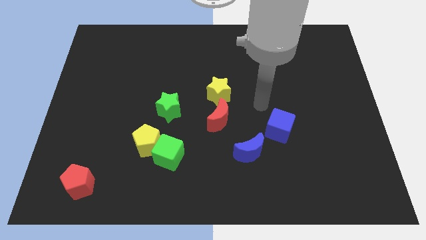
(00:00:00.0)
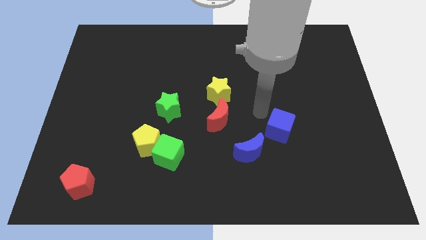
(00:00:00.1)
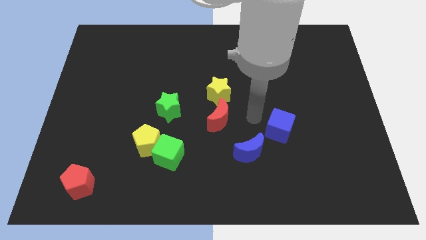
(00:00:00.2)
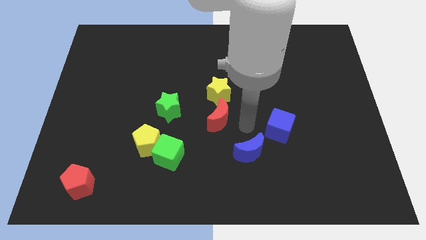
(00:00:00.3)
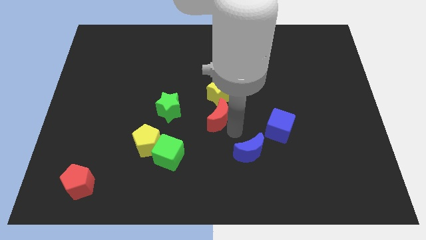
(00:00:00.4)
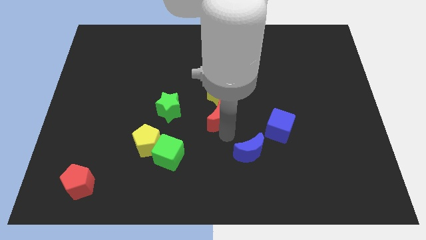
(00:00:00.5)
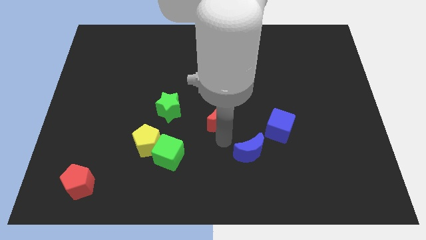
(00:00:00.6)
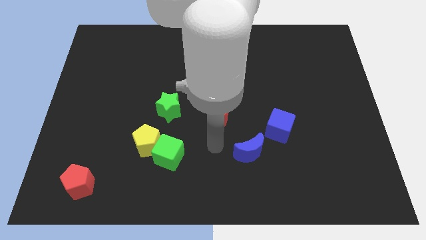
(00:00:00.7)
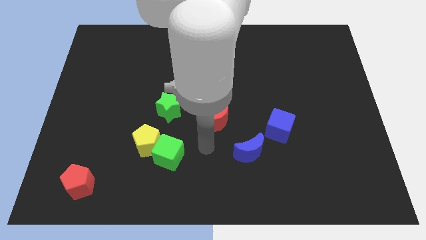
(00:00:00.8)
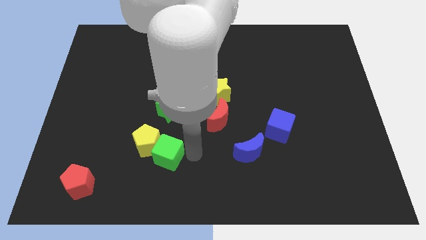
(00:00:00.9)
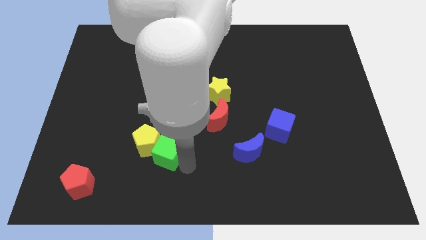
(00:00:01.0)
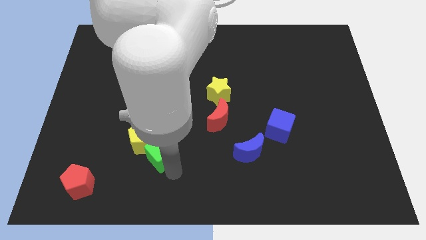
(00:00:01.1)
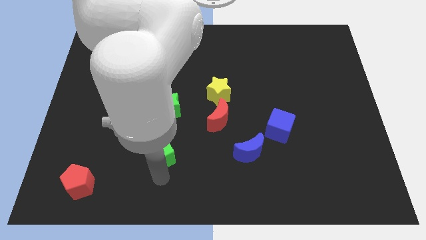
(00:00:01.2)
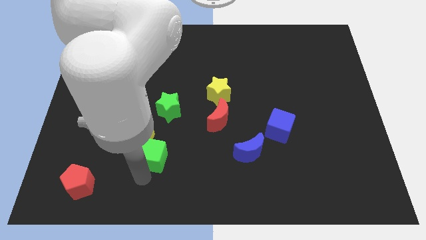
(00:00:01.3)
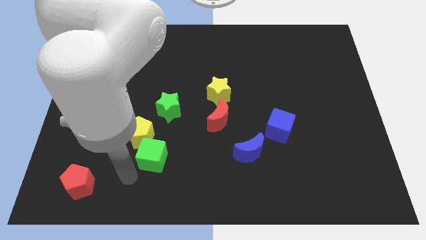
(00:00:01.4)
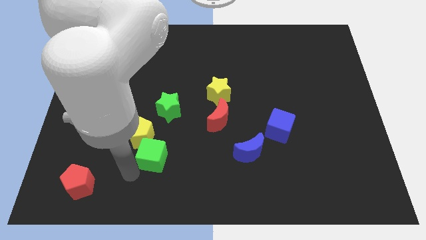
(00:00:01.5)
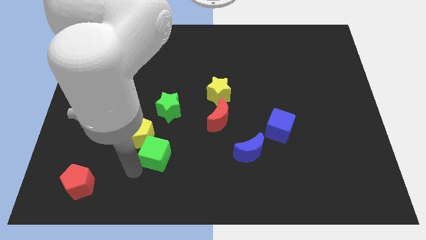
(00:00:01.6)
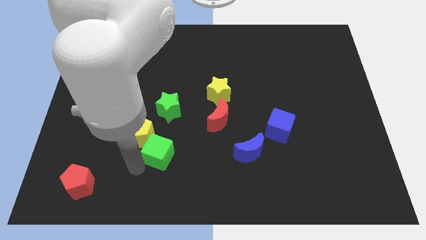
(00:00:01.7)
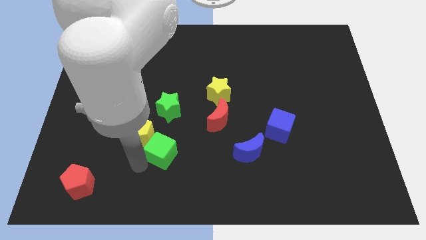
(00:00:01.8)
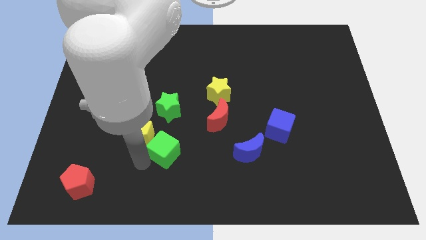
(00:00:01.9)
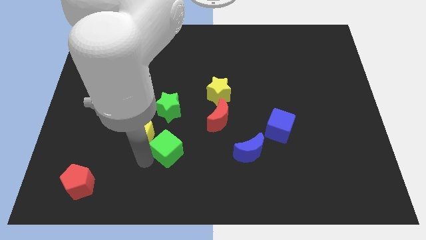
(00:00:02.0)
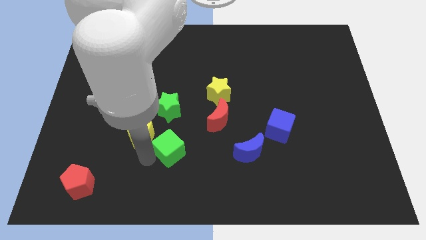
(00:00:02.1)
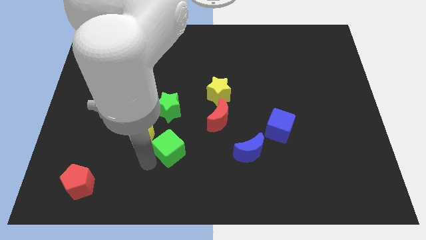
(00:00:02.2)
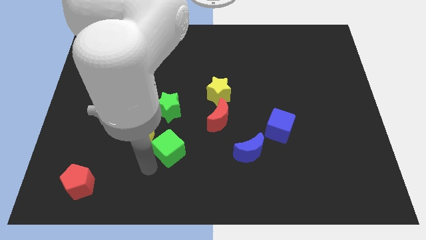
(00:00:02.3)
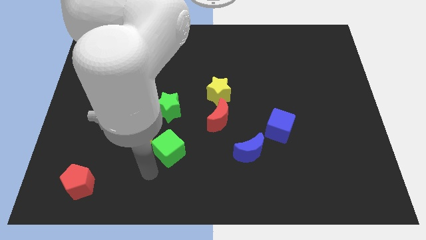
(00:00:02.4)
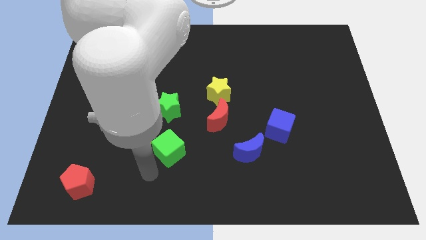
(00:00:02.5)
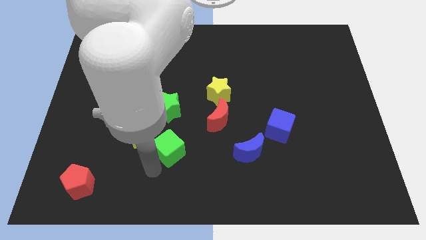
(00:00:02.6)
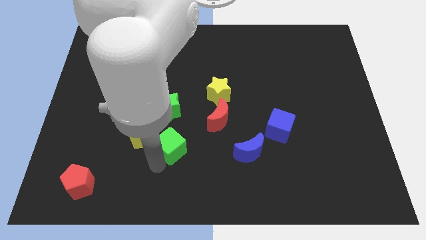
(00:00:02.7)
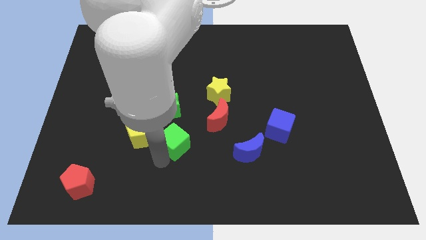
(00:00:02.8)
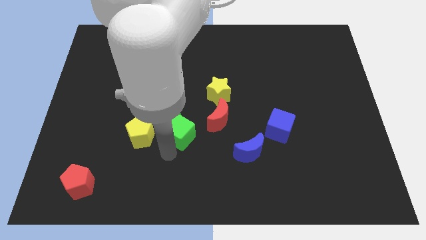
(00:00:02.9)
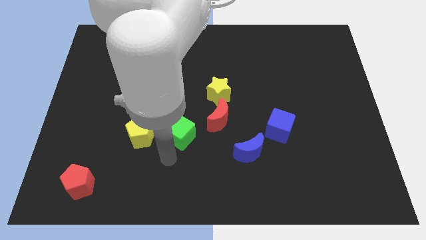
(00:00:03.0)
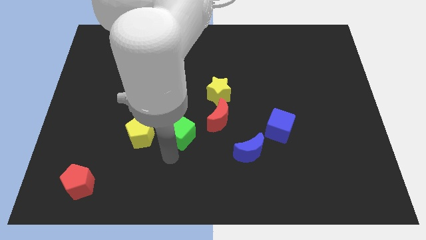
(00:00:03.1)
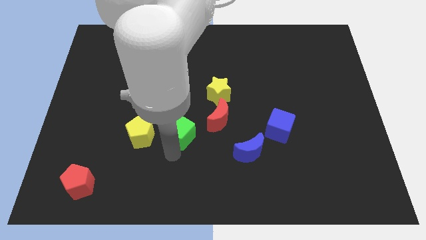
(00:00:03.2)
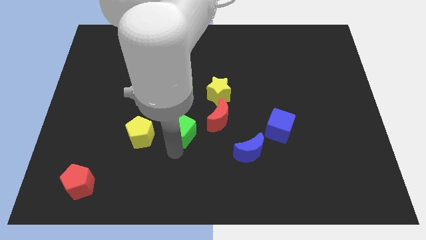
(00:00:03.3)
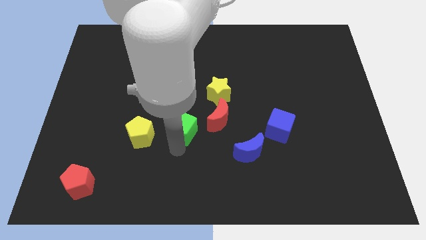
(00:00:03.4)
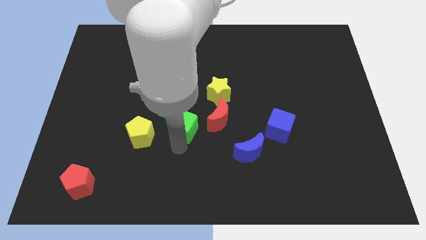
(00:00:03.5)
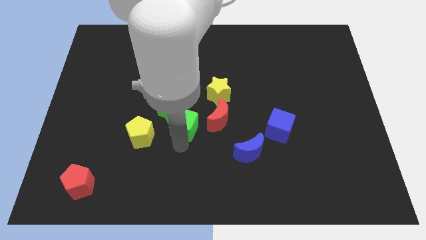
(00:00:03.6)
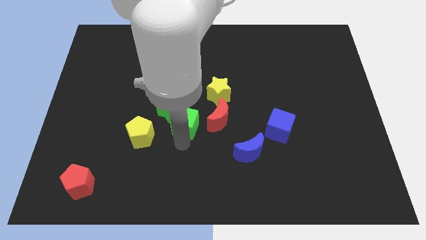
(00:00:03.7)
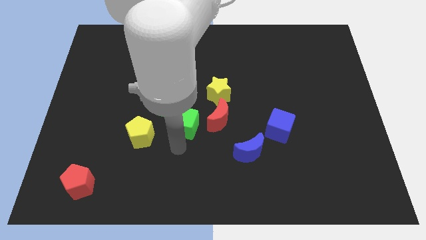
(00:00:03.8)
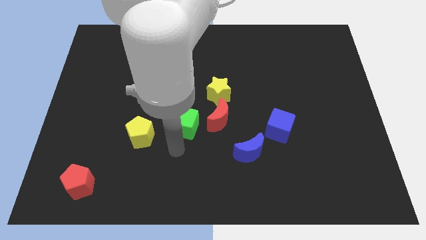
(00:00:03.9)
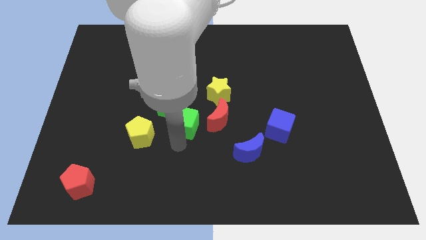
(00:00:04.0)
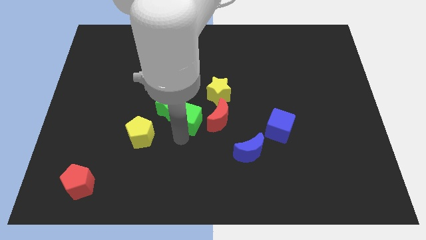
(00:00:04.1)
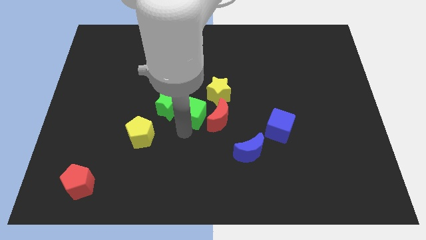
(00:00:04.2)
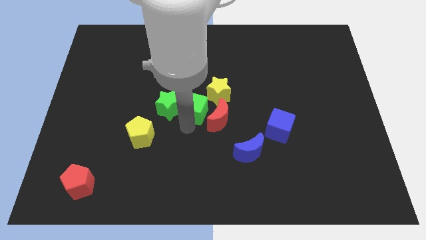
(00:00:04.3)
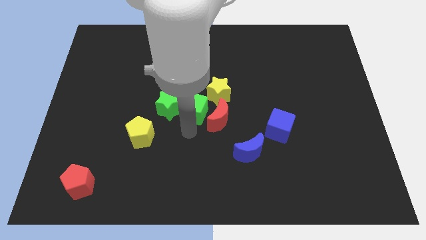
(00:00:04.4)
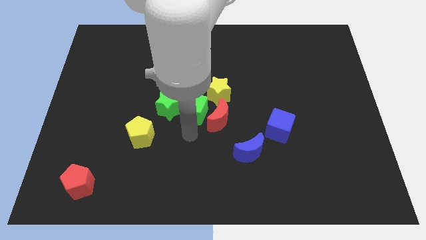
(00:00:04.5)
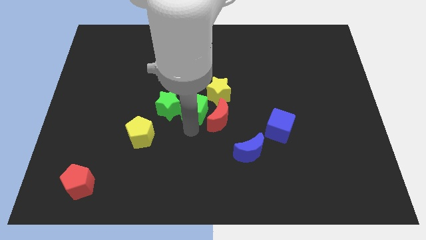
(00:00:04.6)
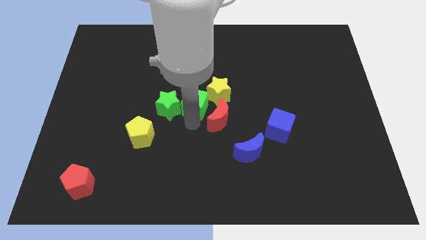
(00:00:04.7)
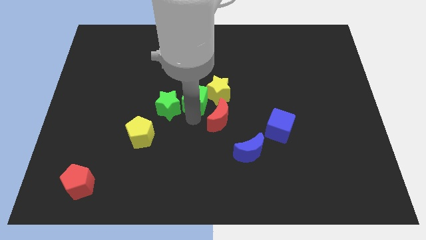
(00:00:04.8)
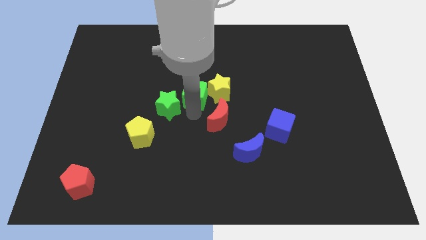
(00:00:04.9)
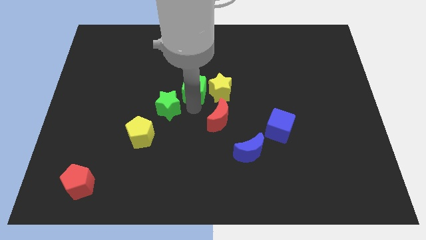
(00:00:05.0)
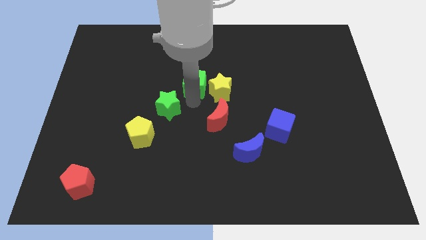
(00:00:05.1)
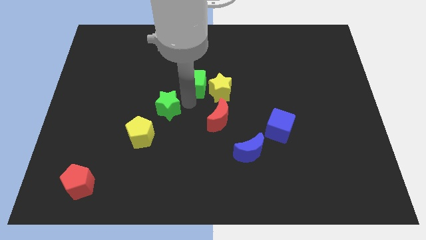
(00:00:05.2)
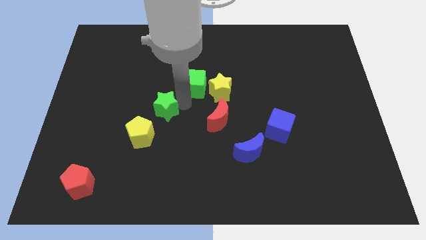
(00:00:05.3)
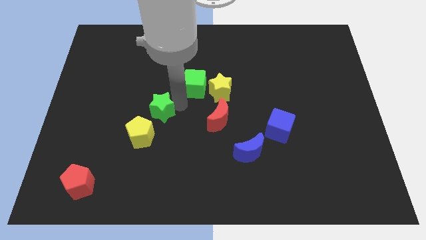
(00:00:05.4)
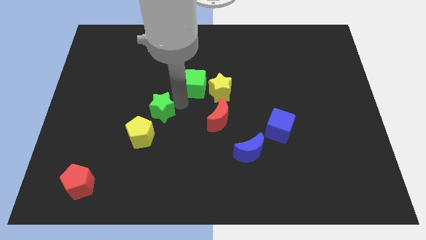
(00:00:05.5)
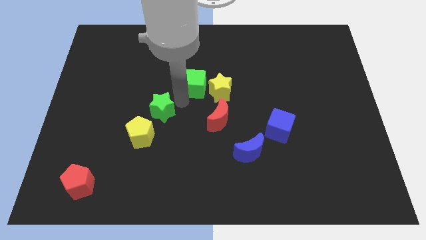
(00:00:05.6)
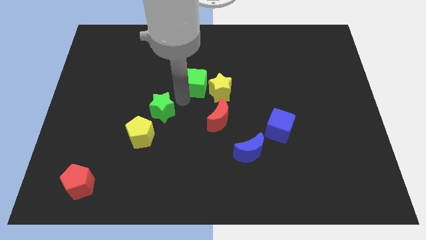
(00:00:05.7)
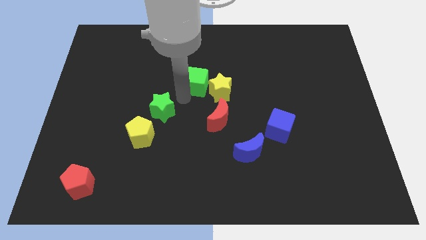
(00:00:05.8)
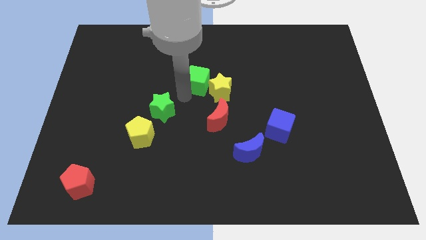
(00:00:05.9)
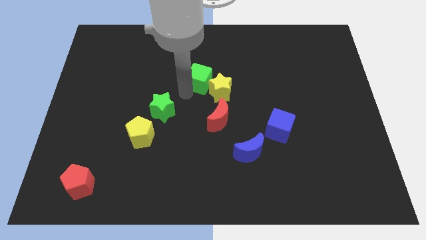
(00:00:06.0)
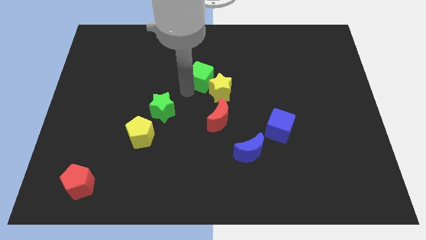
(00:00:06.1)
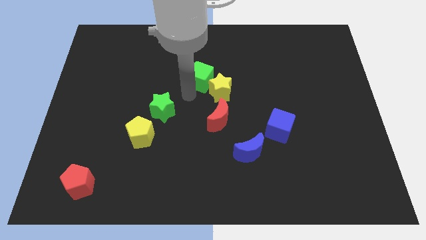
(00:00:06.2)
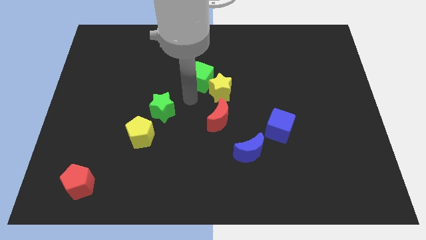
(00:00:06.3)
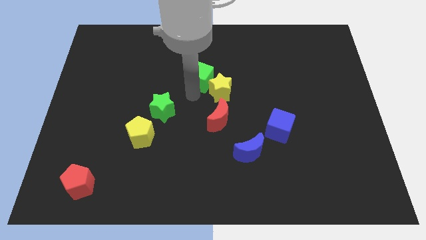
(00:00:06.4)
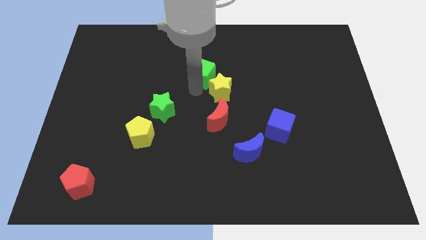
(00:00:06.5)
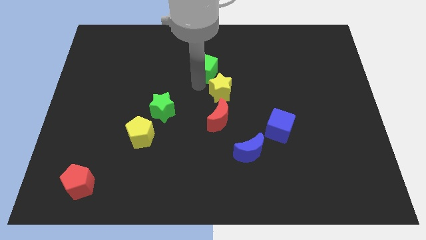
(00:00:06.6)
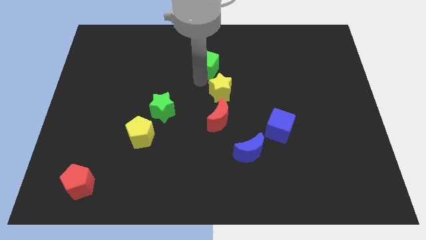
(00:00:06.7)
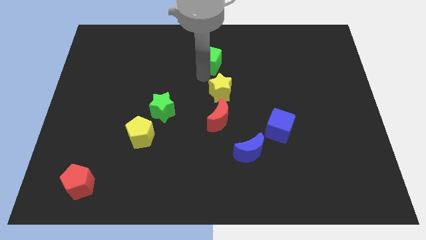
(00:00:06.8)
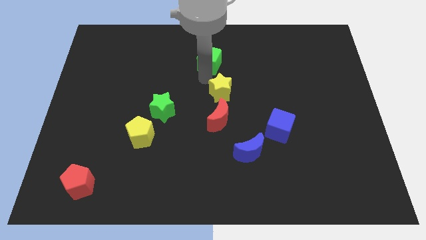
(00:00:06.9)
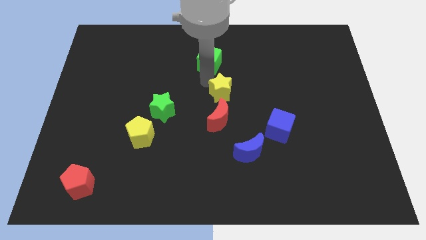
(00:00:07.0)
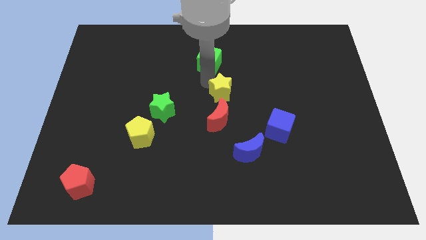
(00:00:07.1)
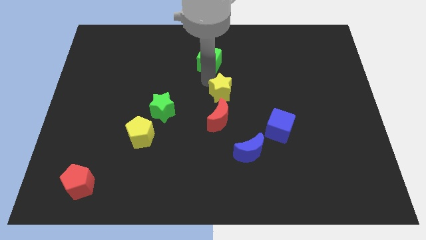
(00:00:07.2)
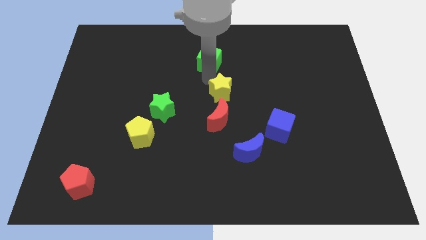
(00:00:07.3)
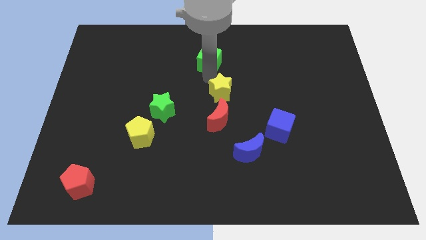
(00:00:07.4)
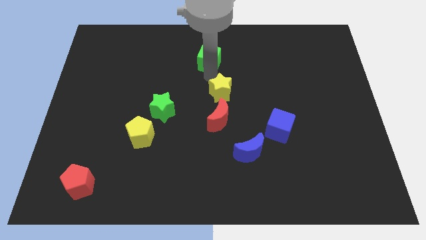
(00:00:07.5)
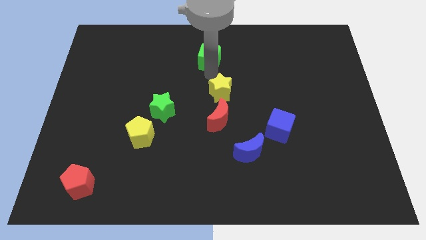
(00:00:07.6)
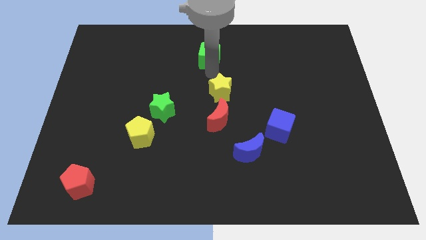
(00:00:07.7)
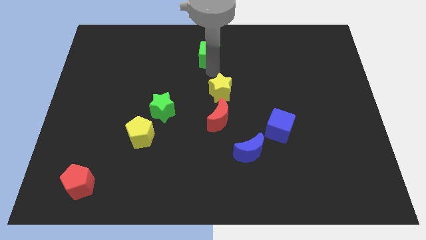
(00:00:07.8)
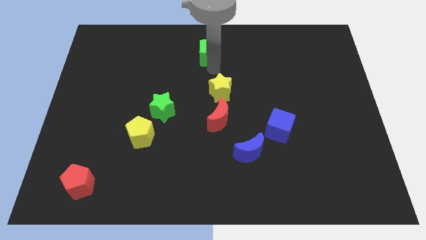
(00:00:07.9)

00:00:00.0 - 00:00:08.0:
put the green cube to the towards your base
